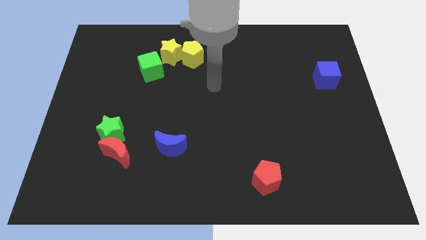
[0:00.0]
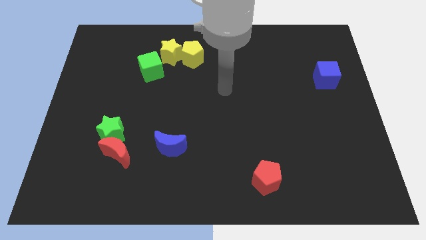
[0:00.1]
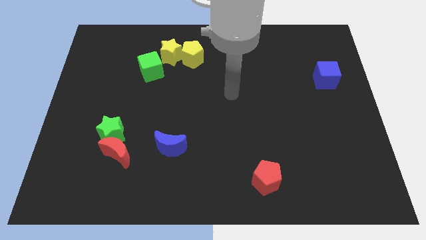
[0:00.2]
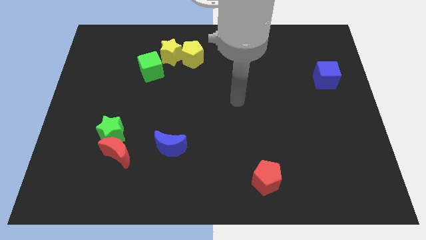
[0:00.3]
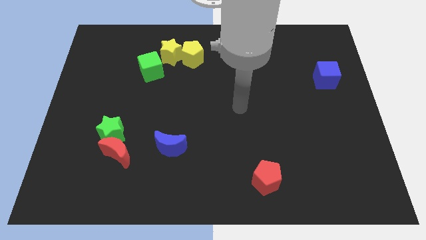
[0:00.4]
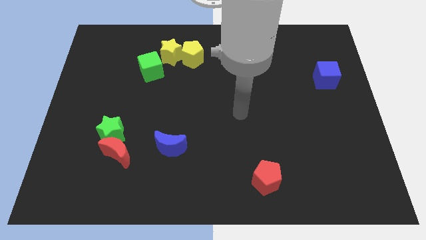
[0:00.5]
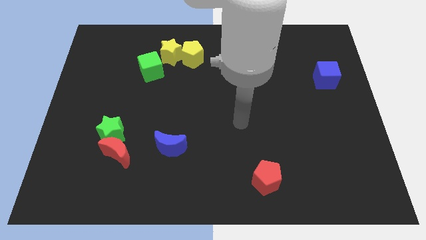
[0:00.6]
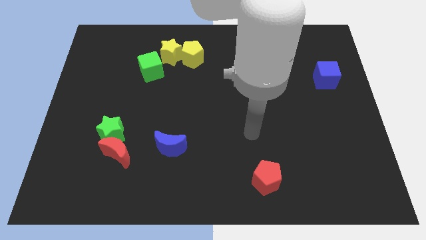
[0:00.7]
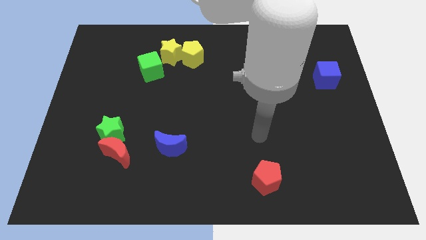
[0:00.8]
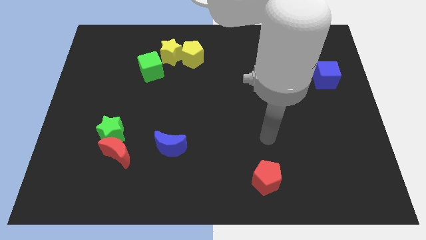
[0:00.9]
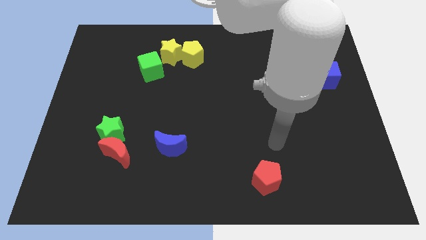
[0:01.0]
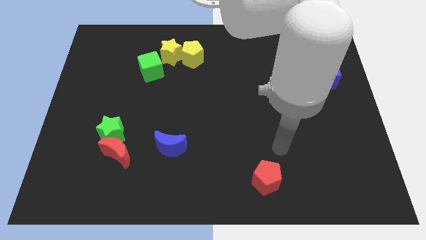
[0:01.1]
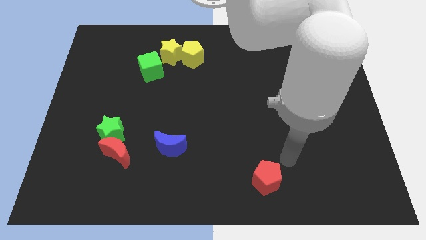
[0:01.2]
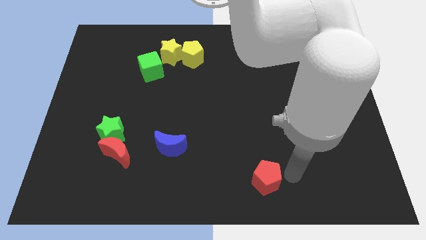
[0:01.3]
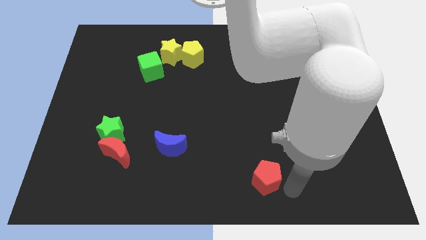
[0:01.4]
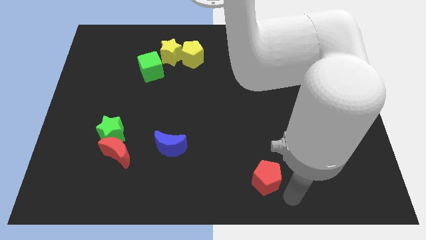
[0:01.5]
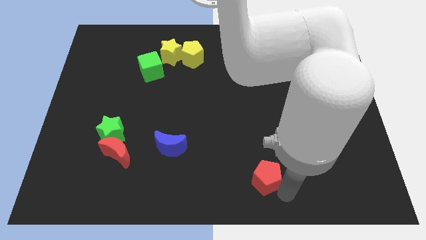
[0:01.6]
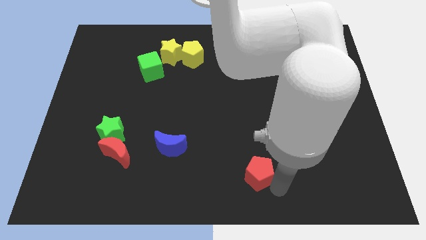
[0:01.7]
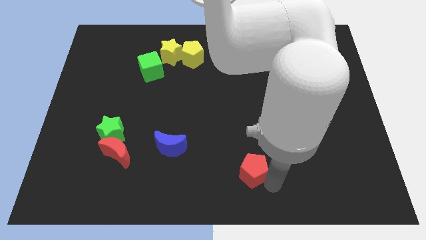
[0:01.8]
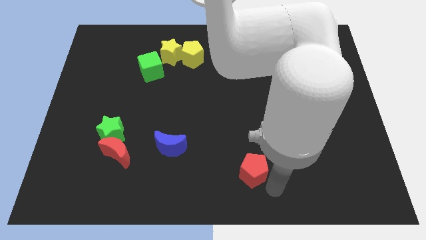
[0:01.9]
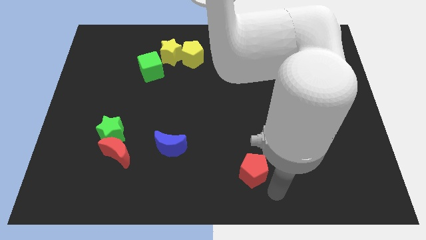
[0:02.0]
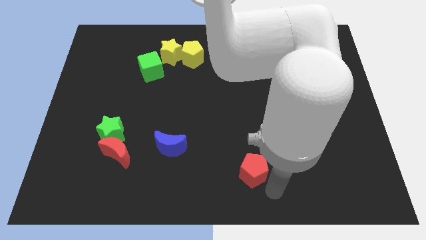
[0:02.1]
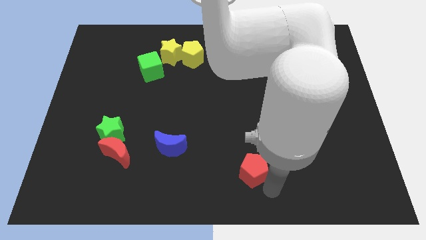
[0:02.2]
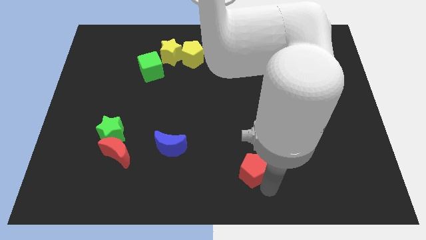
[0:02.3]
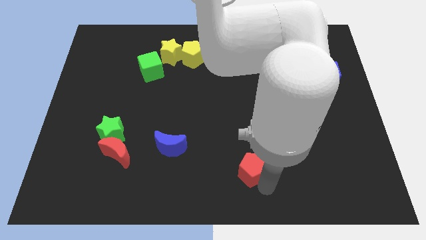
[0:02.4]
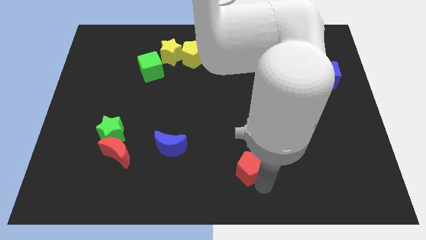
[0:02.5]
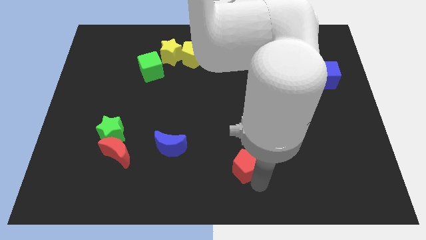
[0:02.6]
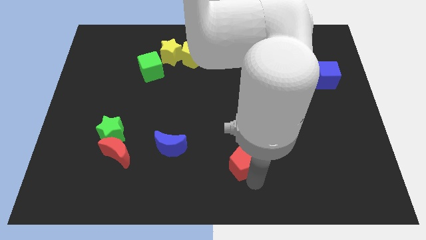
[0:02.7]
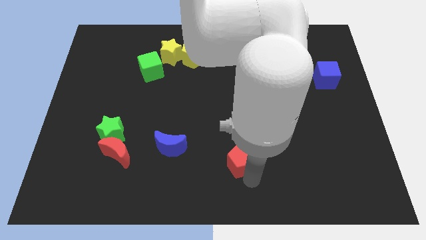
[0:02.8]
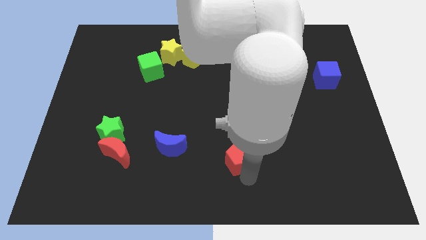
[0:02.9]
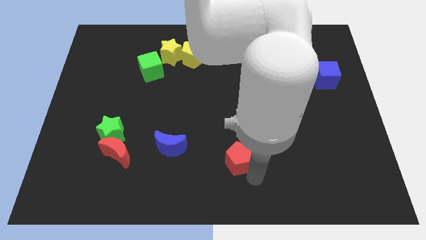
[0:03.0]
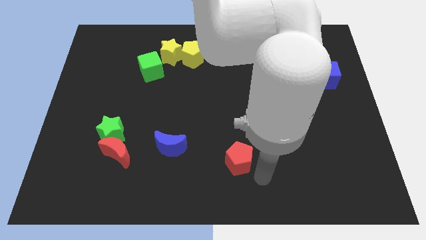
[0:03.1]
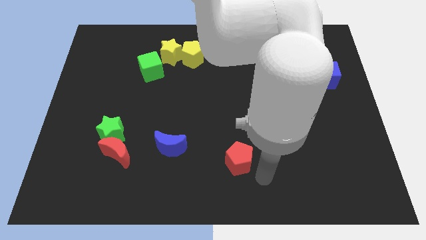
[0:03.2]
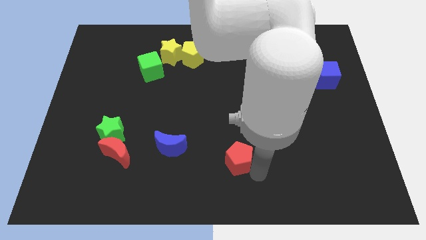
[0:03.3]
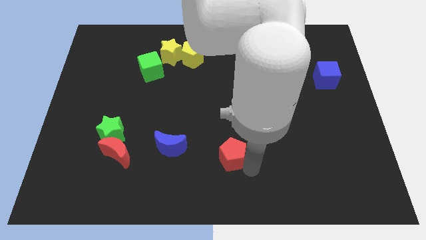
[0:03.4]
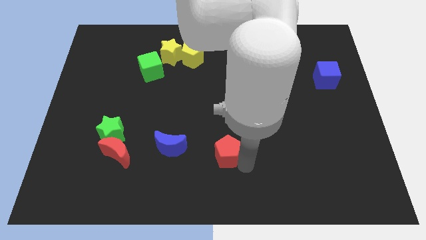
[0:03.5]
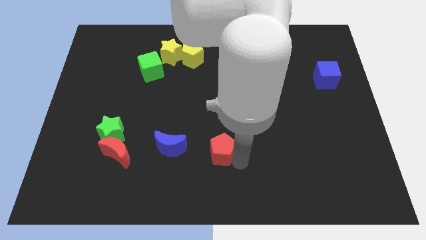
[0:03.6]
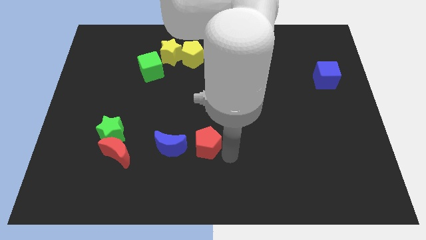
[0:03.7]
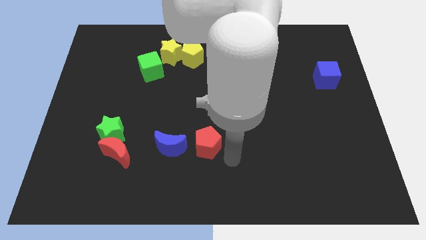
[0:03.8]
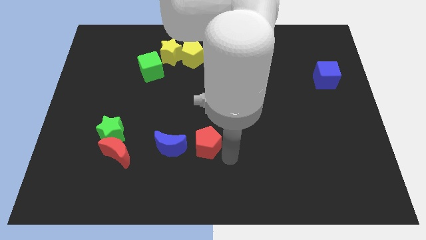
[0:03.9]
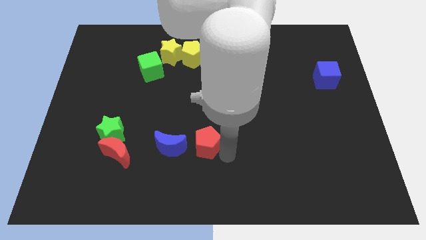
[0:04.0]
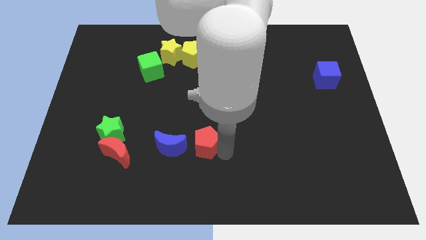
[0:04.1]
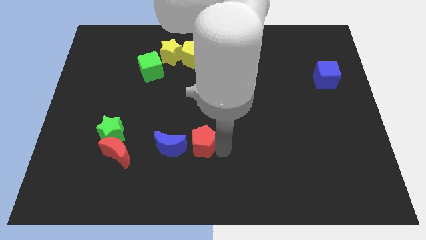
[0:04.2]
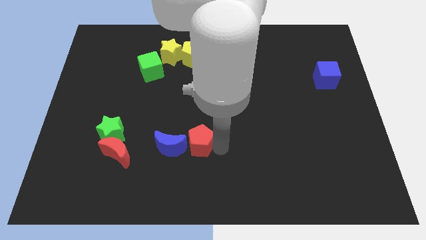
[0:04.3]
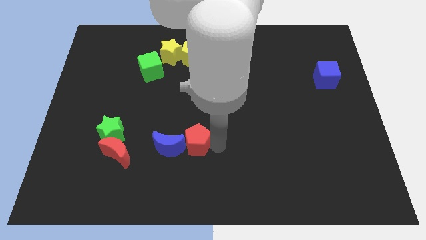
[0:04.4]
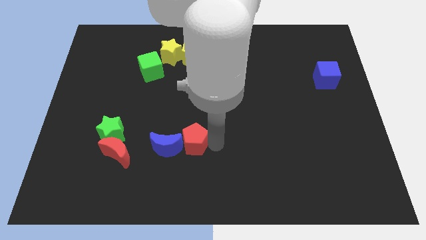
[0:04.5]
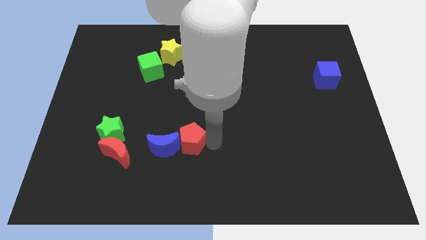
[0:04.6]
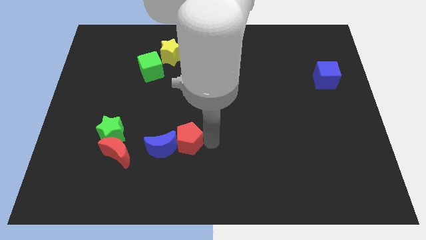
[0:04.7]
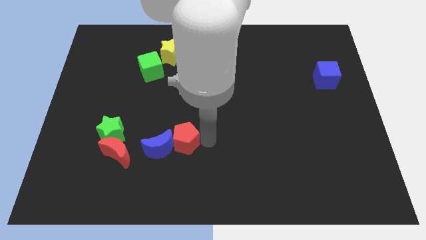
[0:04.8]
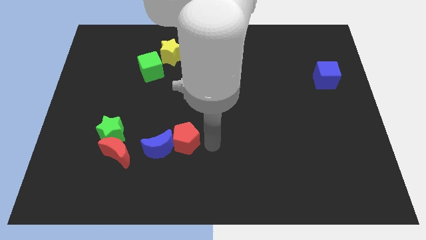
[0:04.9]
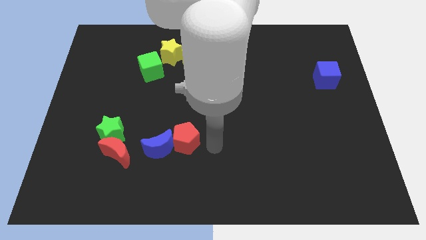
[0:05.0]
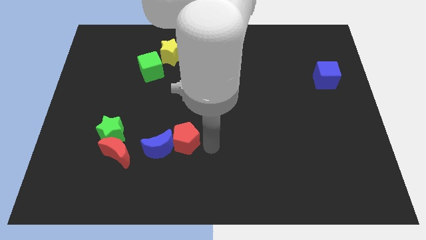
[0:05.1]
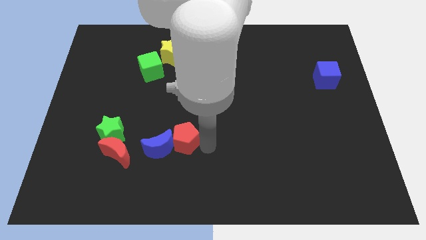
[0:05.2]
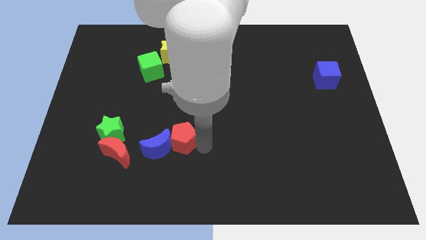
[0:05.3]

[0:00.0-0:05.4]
move the red pentagon to the right of the green star

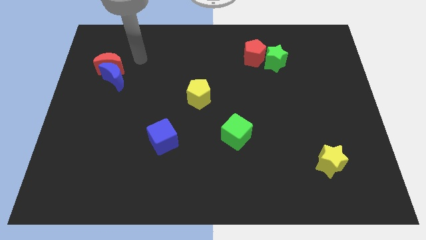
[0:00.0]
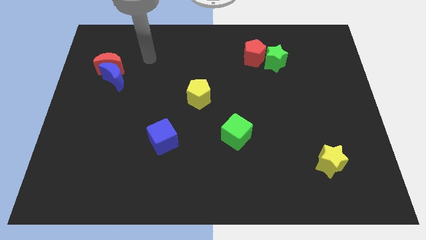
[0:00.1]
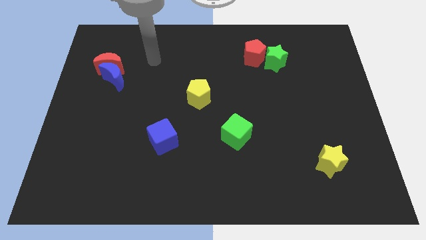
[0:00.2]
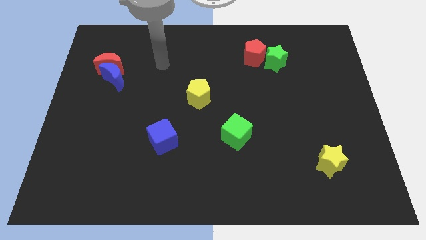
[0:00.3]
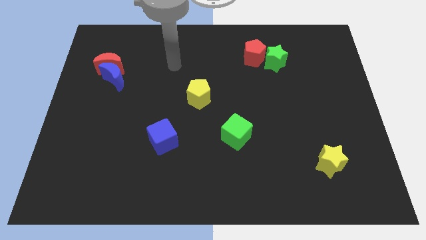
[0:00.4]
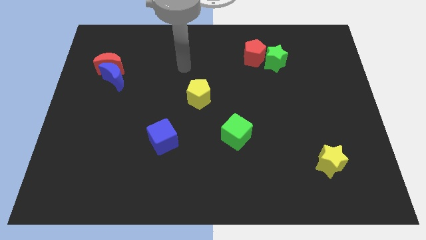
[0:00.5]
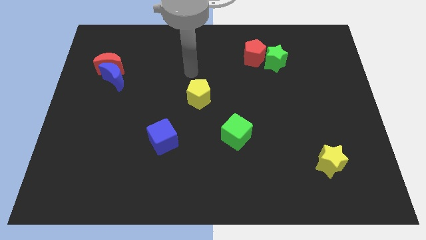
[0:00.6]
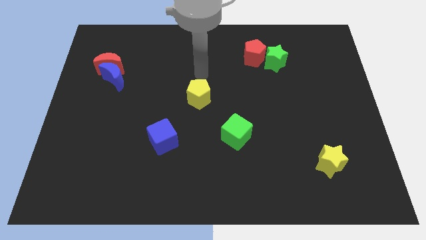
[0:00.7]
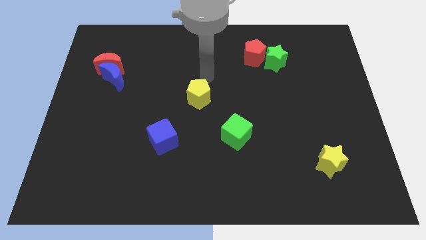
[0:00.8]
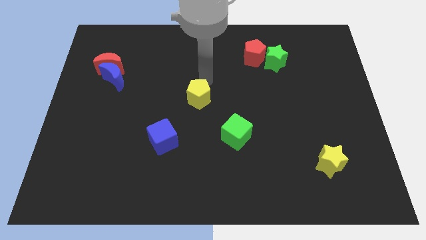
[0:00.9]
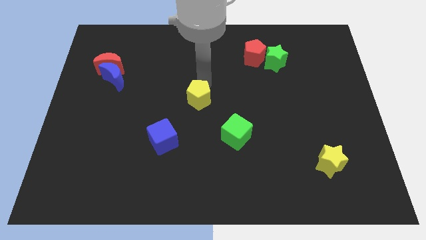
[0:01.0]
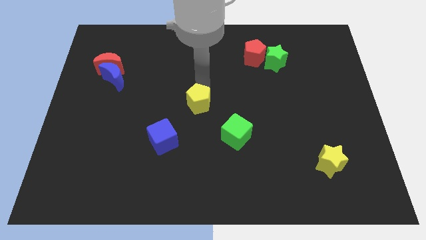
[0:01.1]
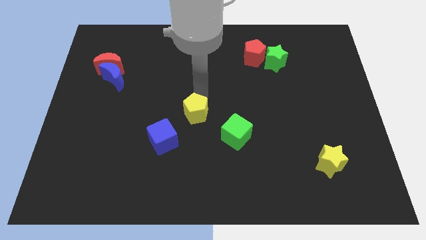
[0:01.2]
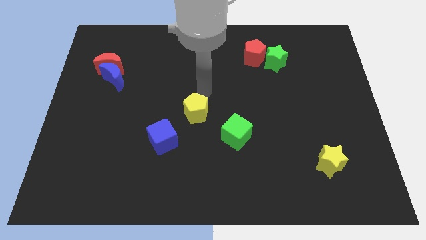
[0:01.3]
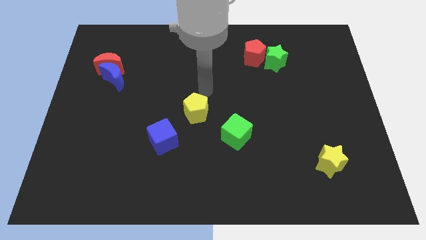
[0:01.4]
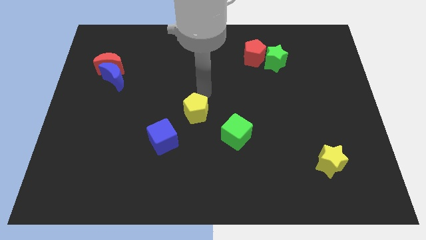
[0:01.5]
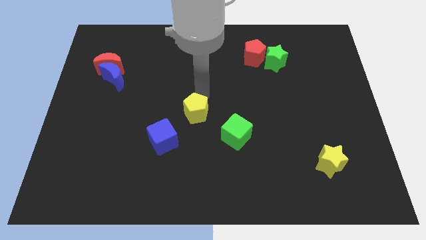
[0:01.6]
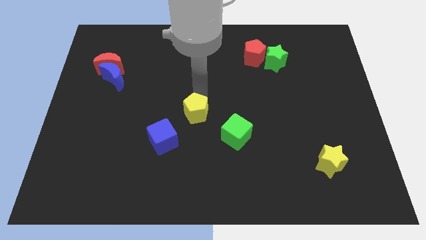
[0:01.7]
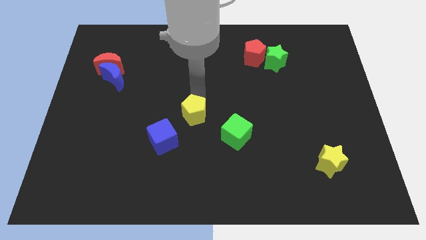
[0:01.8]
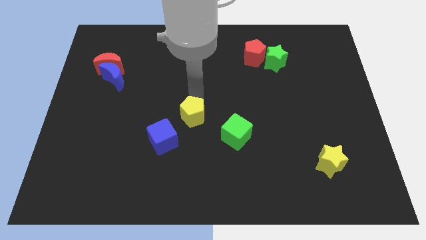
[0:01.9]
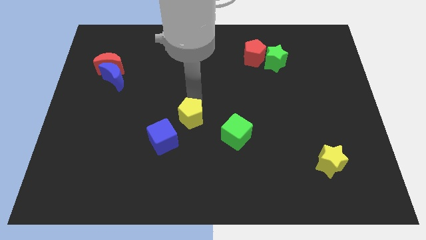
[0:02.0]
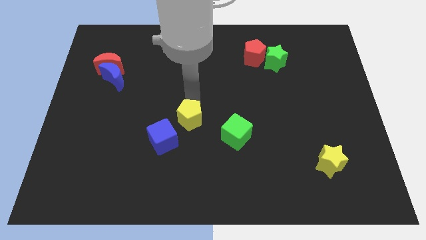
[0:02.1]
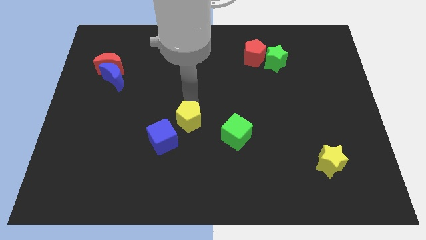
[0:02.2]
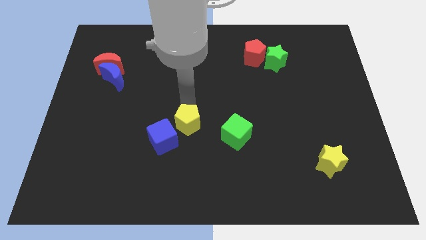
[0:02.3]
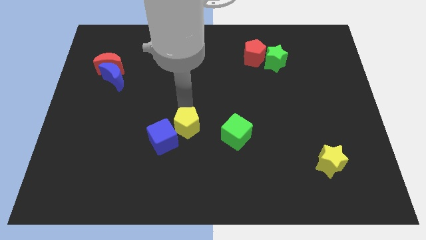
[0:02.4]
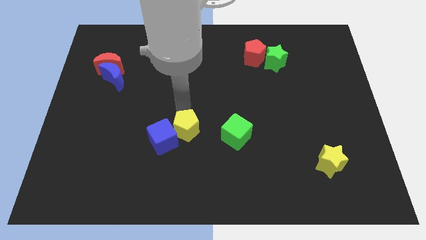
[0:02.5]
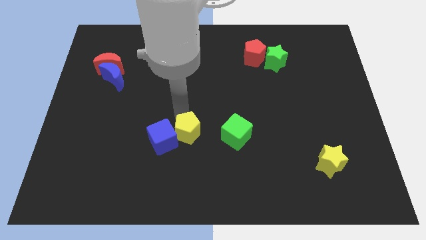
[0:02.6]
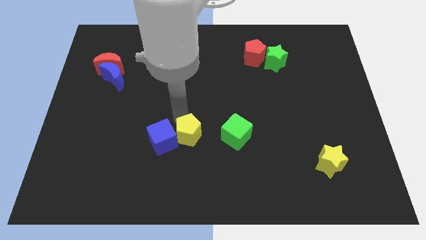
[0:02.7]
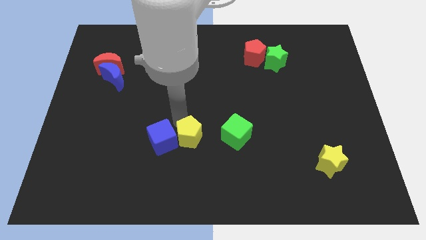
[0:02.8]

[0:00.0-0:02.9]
push the yellow pentagon diagonally down and to the right of the blue cube
